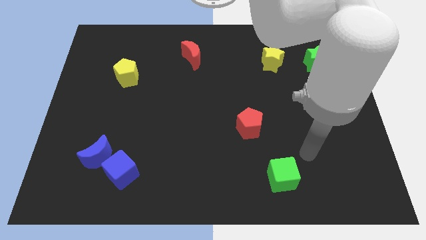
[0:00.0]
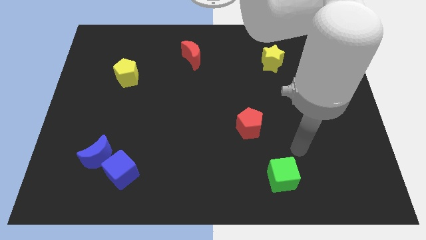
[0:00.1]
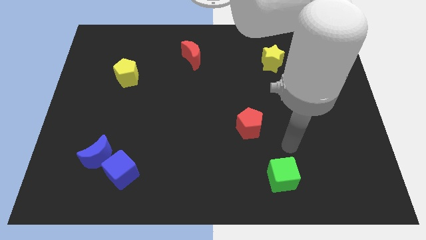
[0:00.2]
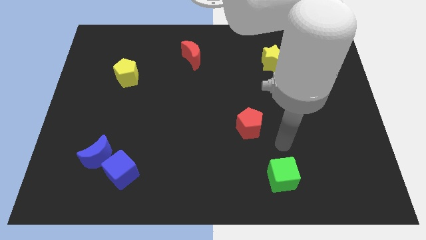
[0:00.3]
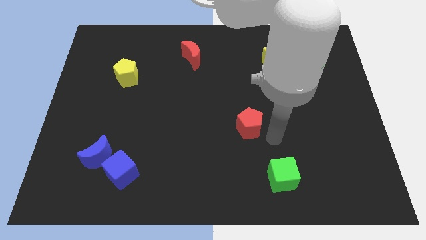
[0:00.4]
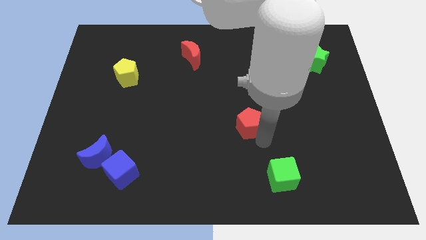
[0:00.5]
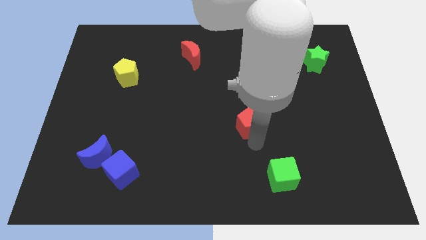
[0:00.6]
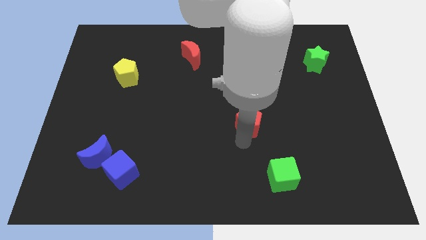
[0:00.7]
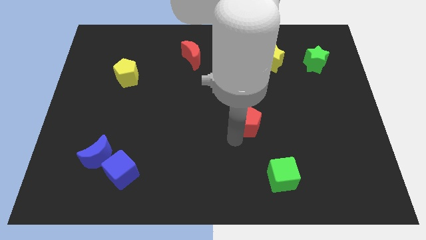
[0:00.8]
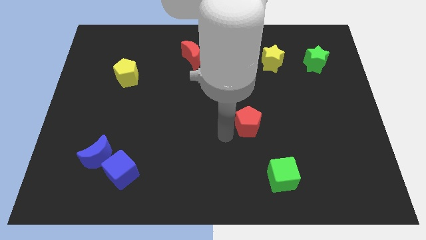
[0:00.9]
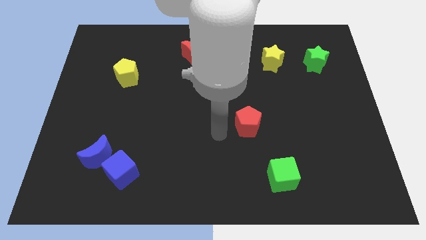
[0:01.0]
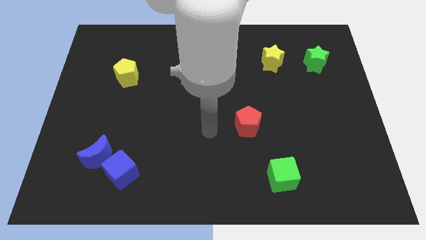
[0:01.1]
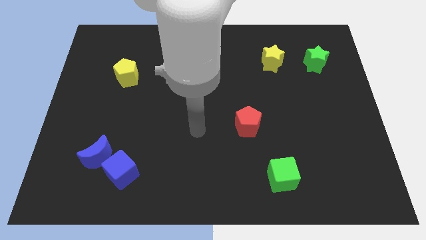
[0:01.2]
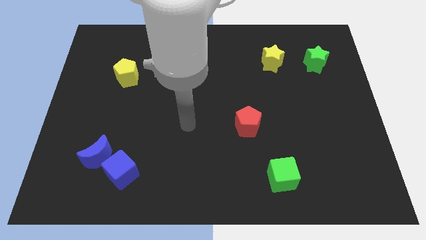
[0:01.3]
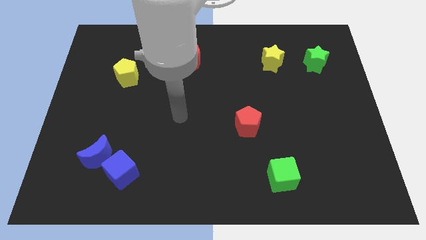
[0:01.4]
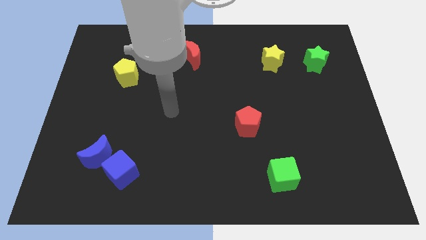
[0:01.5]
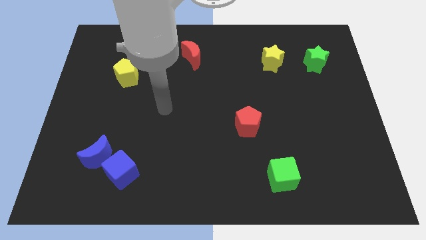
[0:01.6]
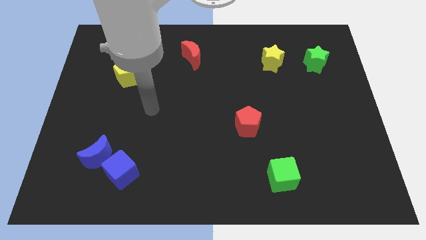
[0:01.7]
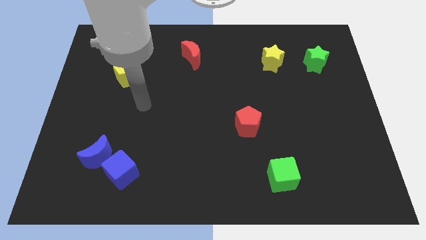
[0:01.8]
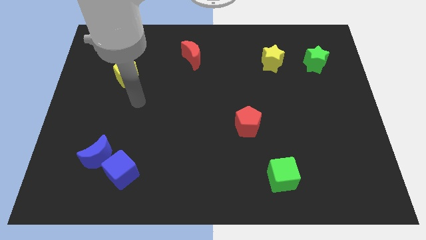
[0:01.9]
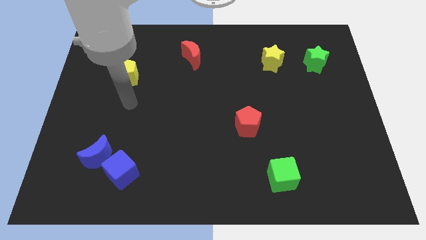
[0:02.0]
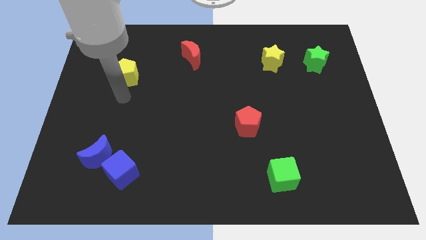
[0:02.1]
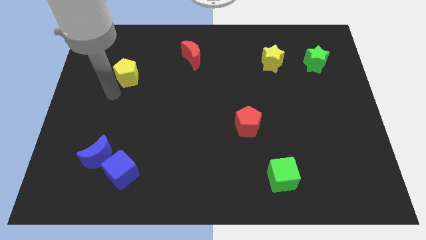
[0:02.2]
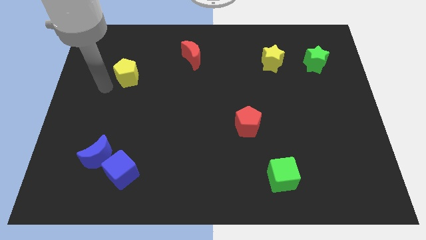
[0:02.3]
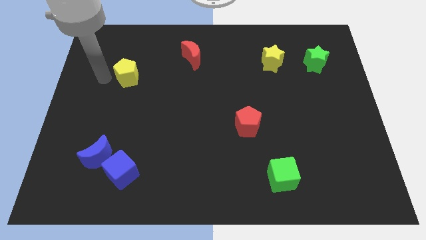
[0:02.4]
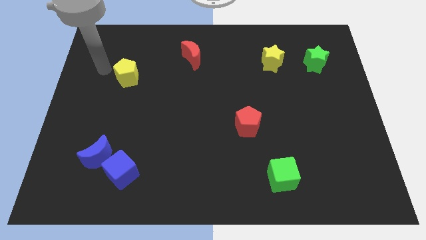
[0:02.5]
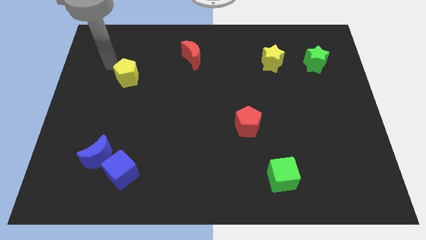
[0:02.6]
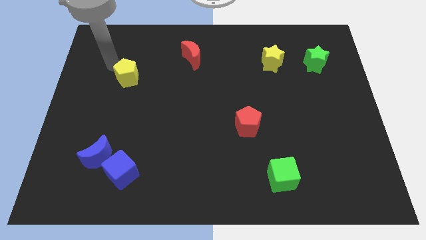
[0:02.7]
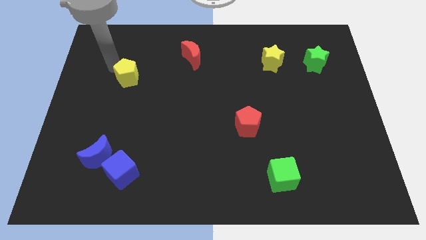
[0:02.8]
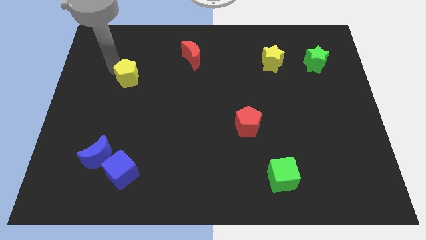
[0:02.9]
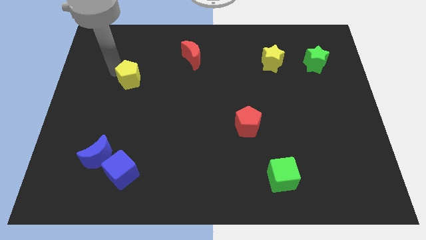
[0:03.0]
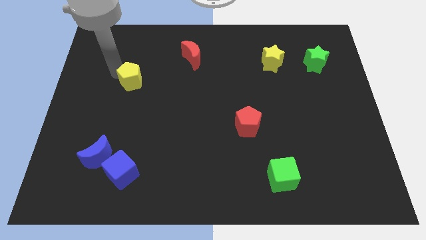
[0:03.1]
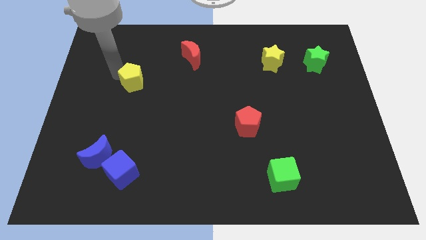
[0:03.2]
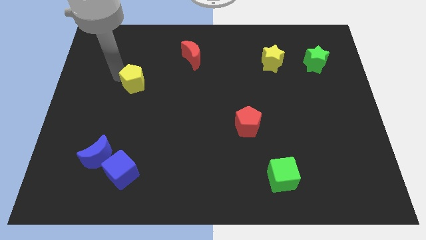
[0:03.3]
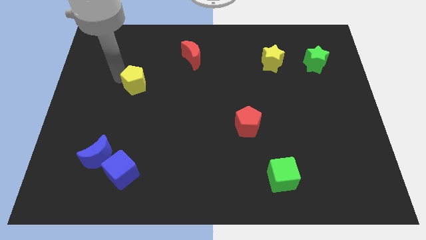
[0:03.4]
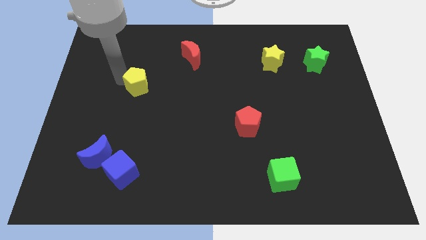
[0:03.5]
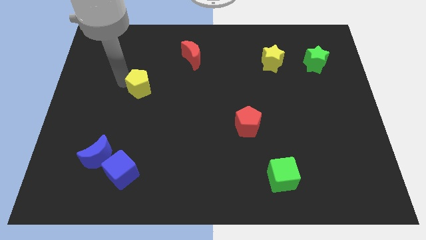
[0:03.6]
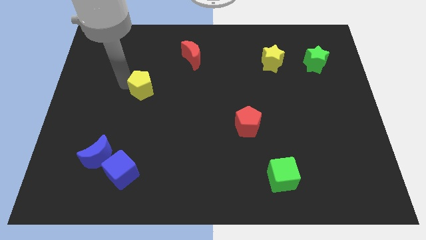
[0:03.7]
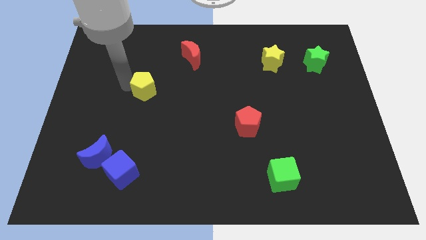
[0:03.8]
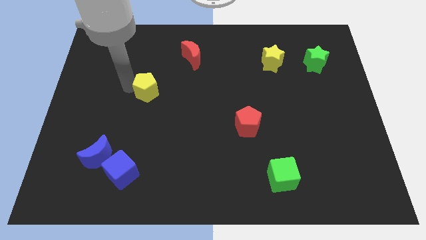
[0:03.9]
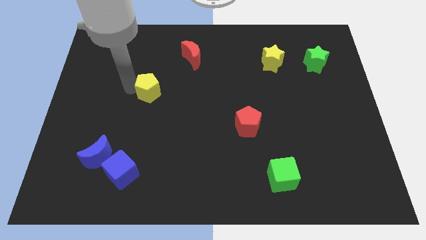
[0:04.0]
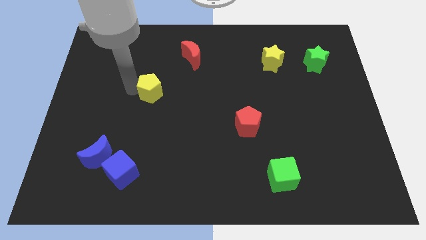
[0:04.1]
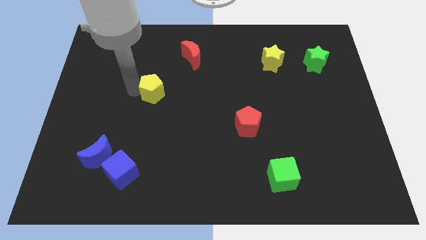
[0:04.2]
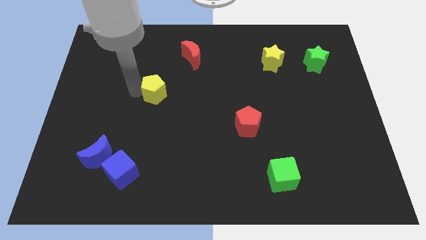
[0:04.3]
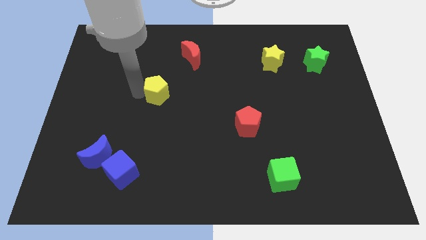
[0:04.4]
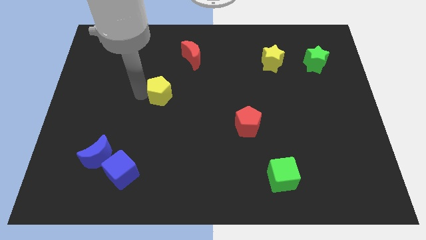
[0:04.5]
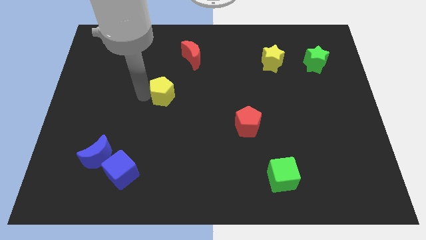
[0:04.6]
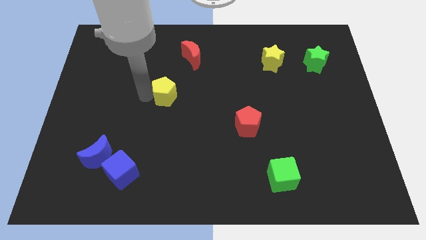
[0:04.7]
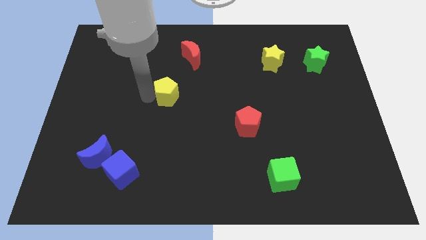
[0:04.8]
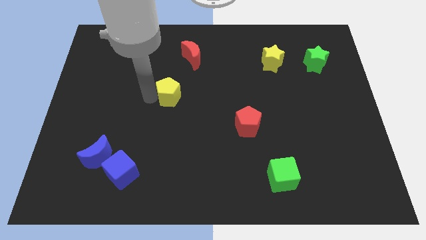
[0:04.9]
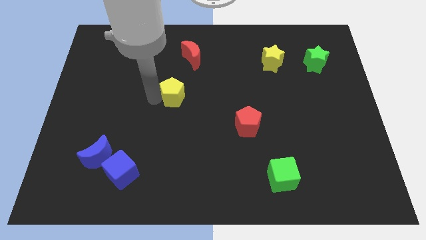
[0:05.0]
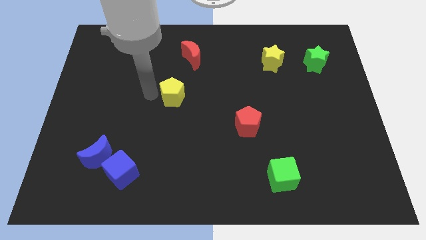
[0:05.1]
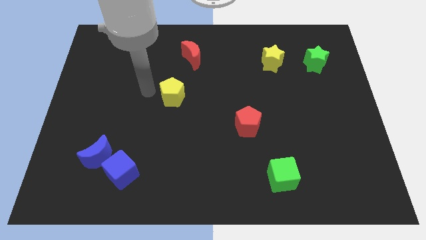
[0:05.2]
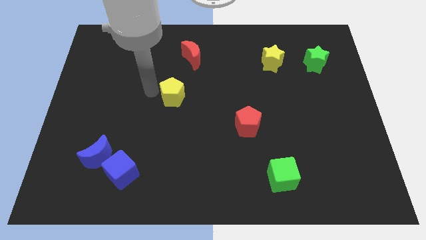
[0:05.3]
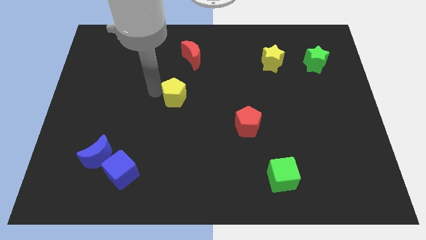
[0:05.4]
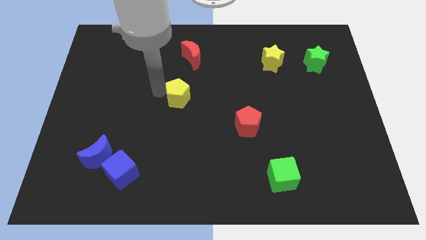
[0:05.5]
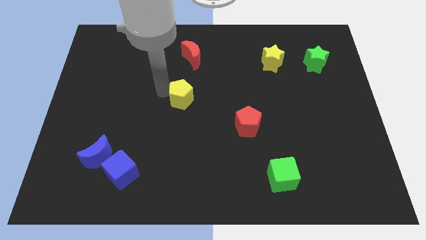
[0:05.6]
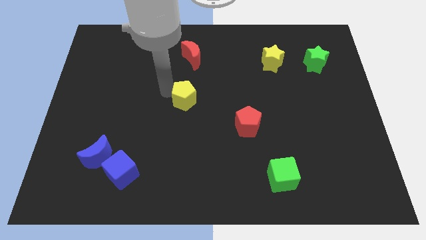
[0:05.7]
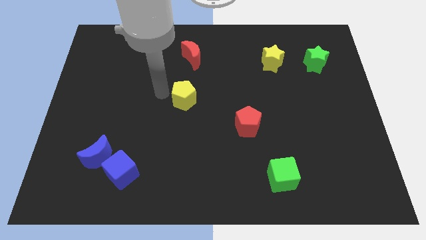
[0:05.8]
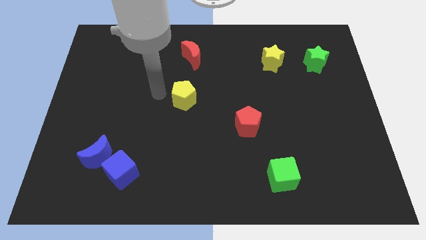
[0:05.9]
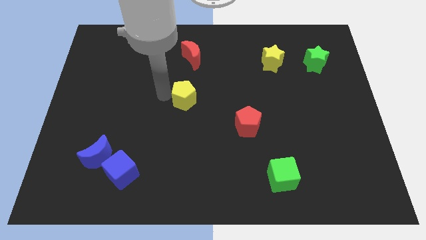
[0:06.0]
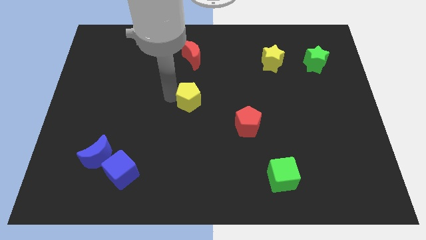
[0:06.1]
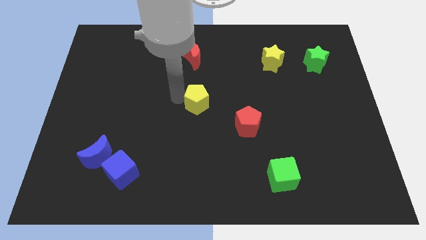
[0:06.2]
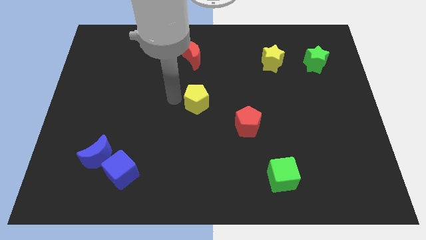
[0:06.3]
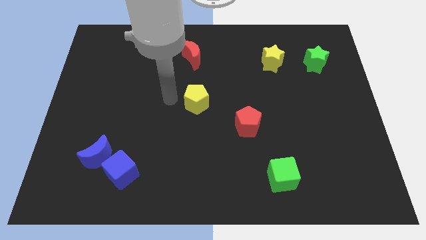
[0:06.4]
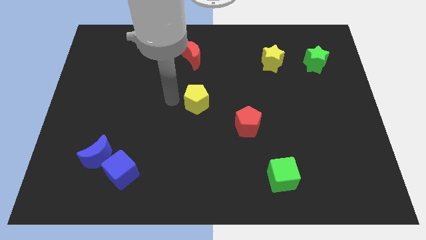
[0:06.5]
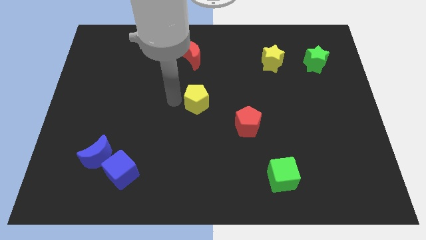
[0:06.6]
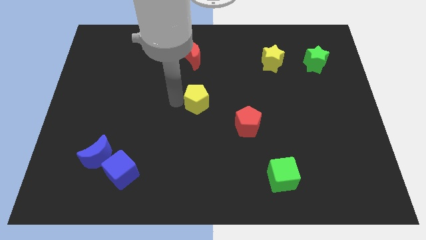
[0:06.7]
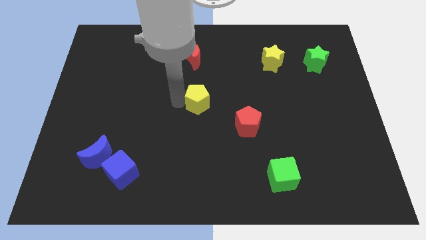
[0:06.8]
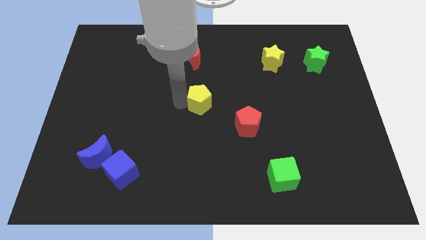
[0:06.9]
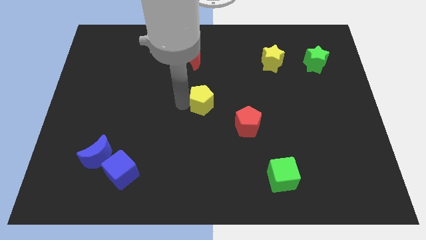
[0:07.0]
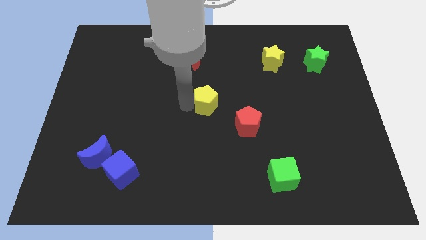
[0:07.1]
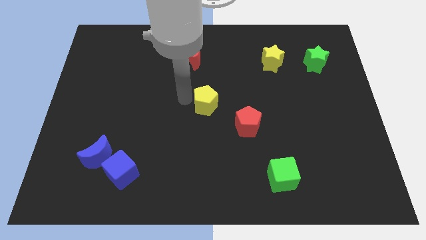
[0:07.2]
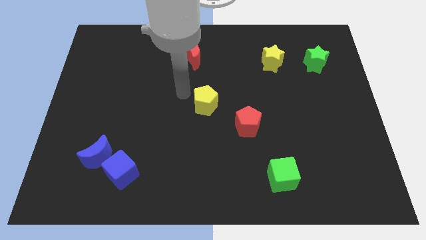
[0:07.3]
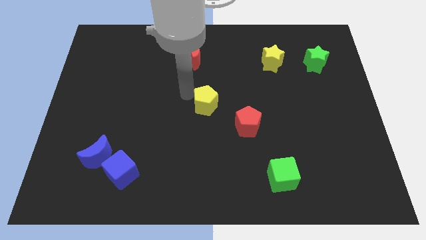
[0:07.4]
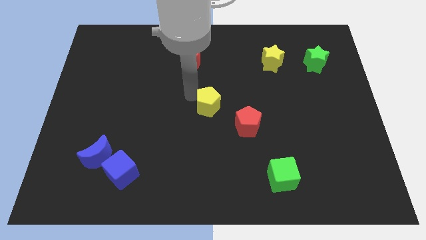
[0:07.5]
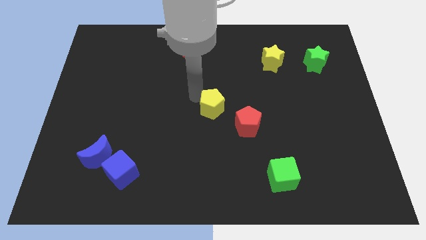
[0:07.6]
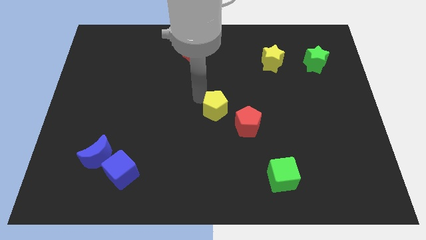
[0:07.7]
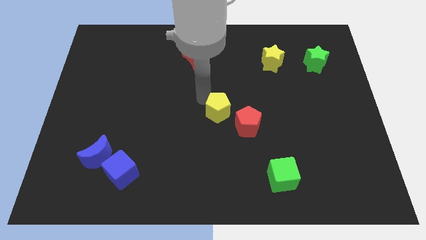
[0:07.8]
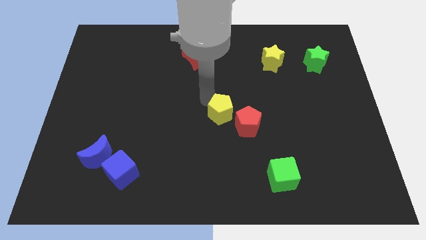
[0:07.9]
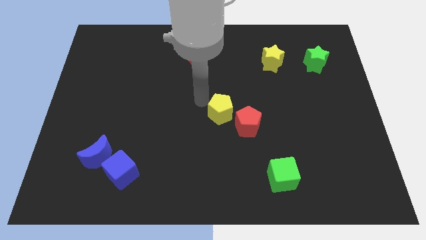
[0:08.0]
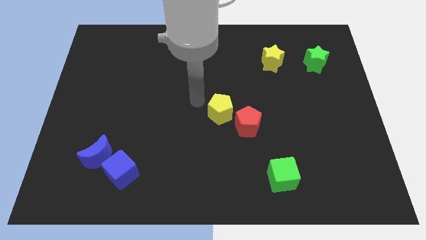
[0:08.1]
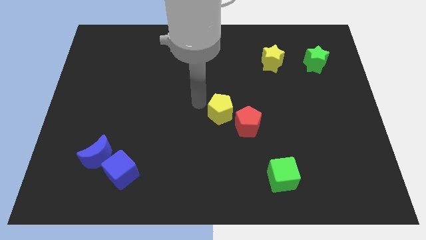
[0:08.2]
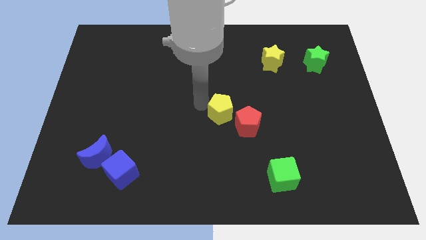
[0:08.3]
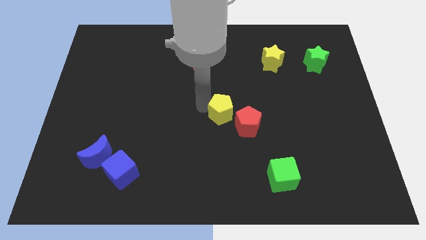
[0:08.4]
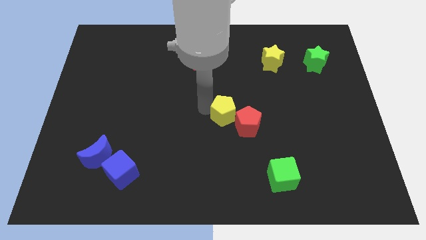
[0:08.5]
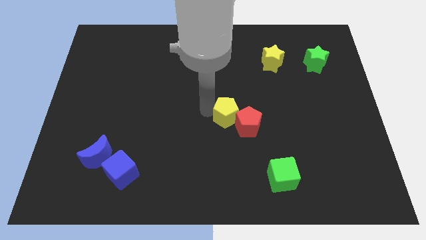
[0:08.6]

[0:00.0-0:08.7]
push the yellow pentagon next to the red pentagon
